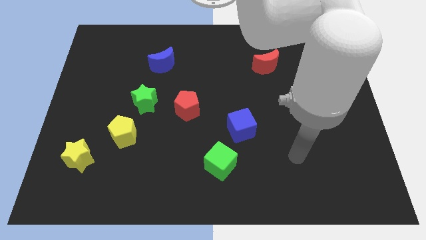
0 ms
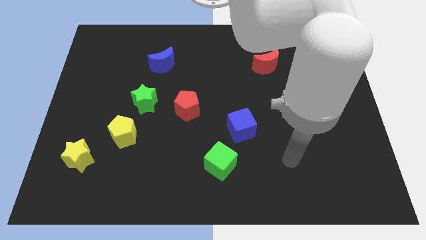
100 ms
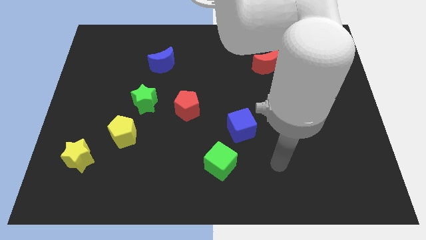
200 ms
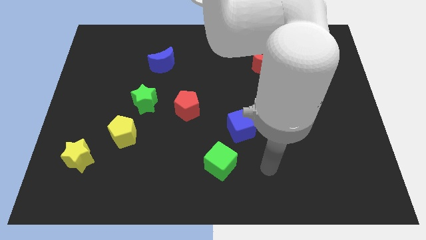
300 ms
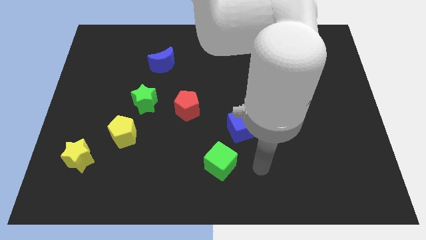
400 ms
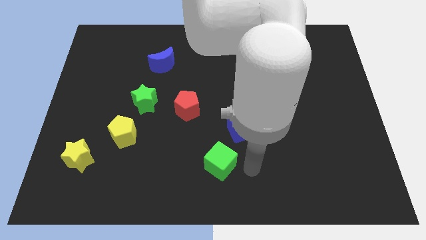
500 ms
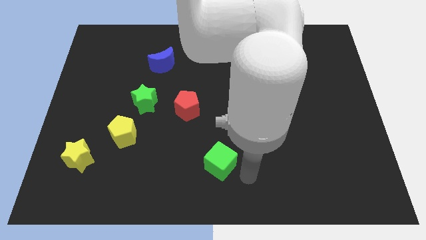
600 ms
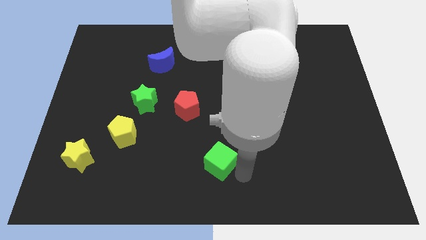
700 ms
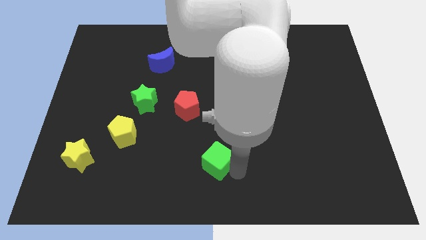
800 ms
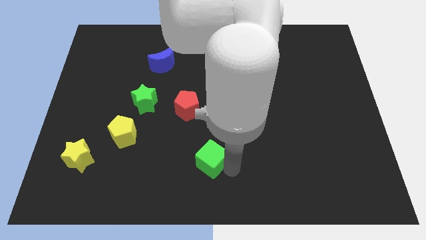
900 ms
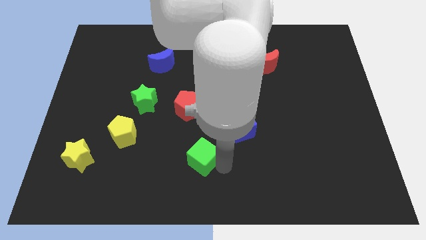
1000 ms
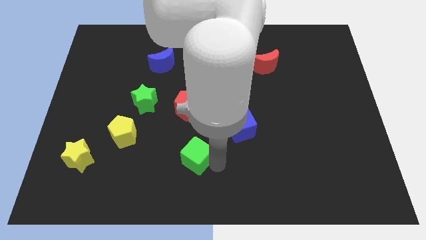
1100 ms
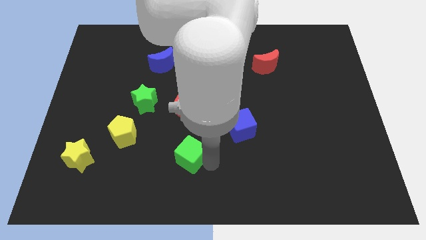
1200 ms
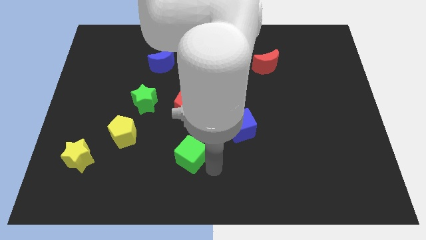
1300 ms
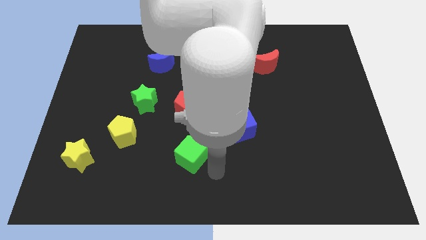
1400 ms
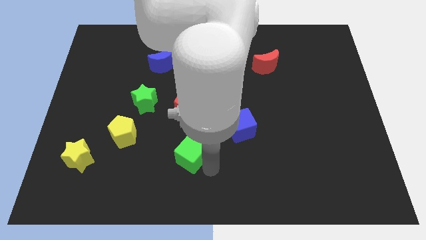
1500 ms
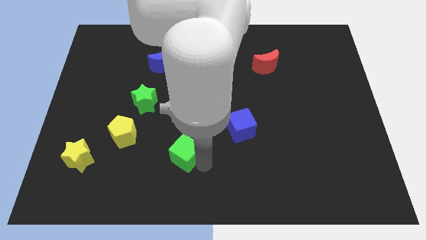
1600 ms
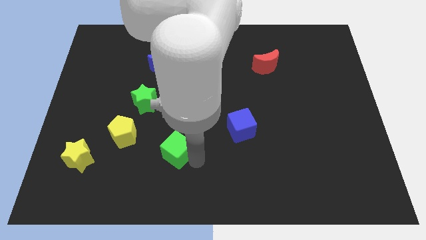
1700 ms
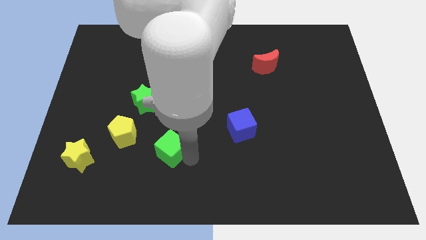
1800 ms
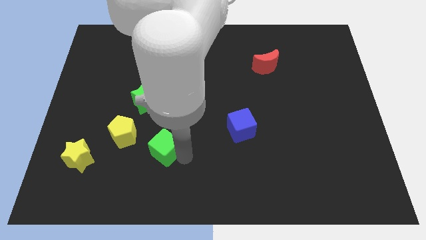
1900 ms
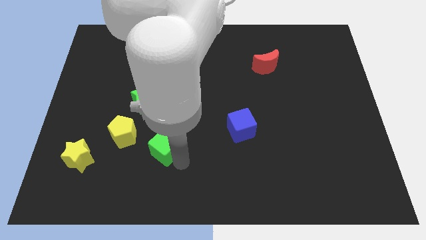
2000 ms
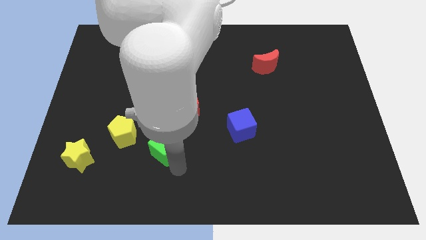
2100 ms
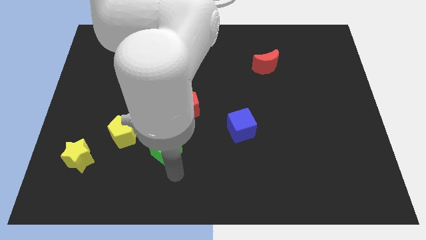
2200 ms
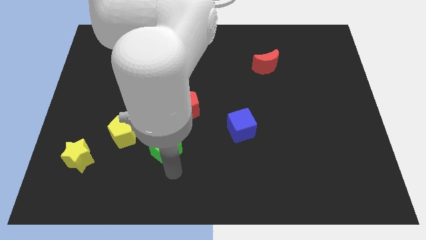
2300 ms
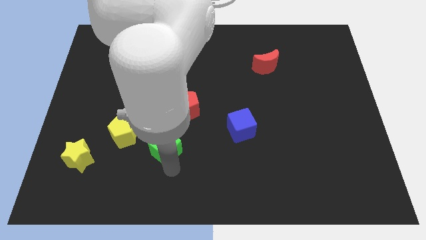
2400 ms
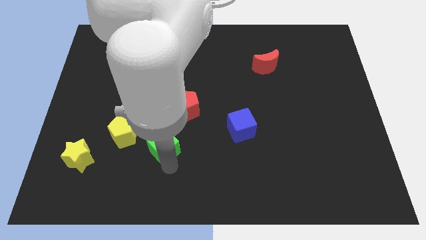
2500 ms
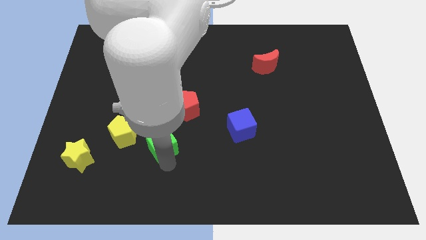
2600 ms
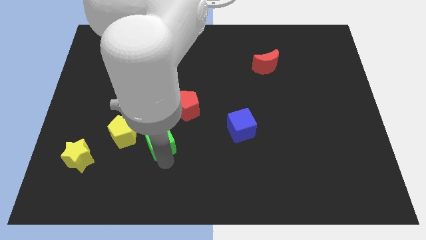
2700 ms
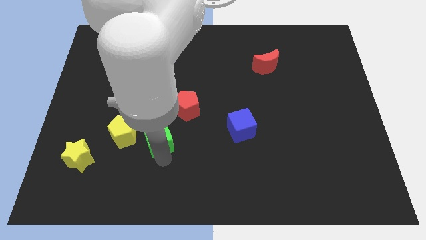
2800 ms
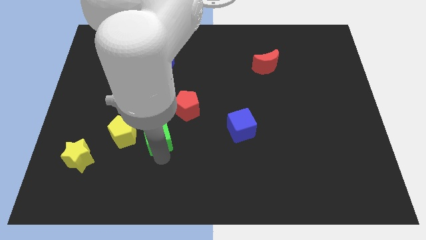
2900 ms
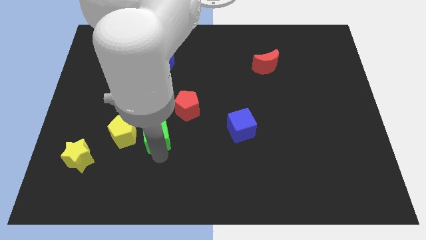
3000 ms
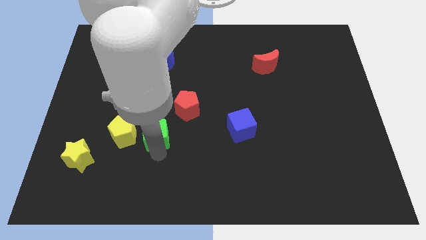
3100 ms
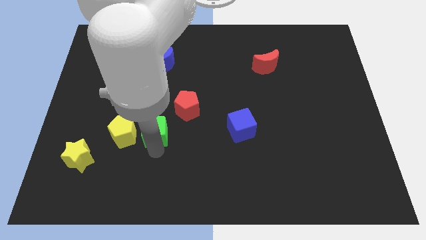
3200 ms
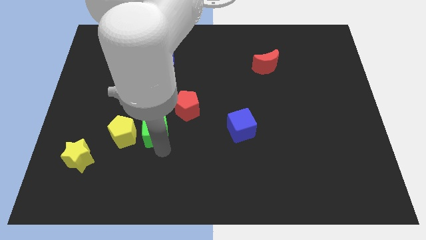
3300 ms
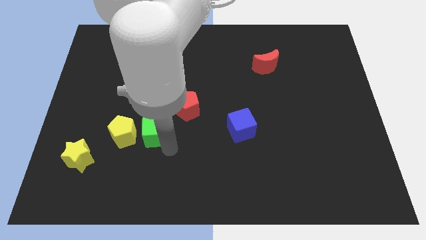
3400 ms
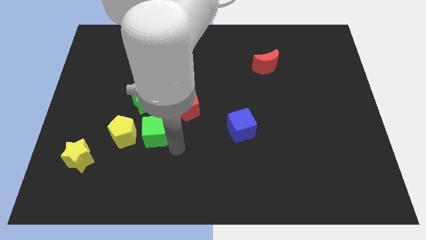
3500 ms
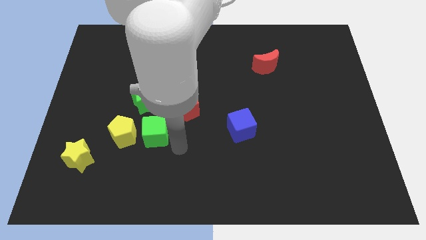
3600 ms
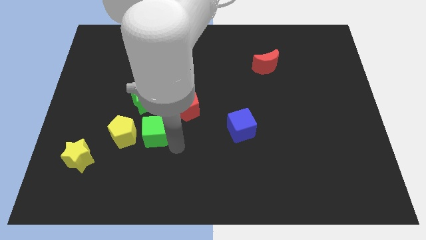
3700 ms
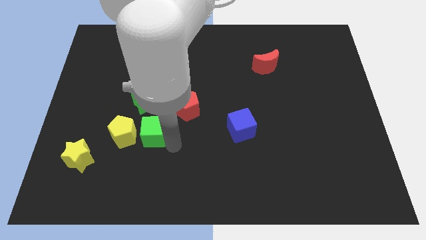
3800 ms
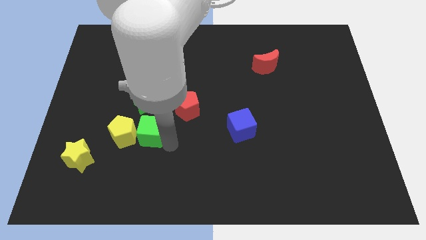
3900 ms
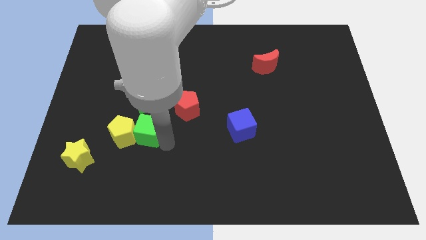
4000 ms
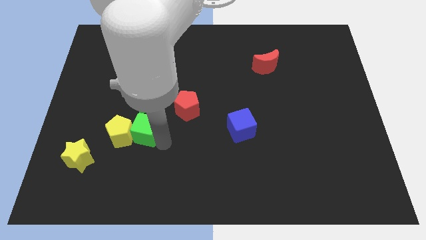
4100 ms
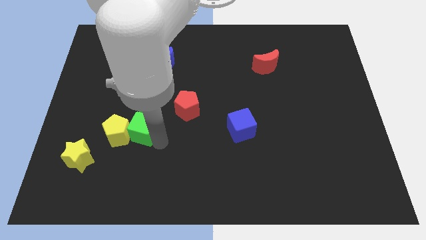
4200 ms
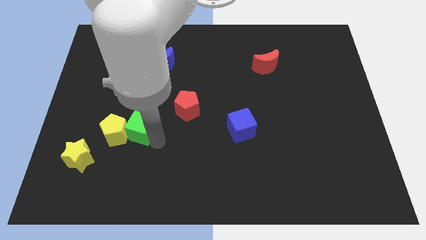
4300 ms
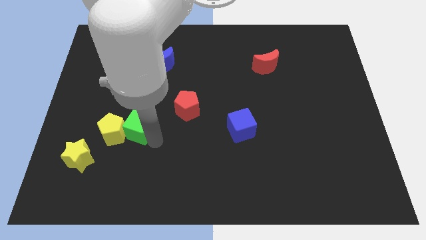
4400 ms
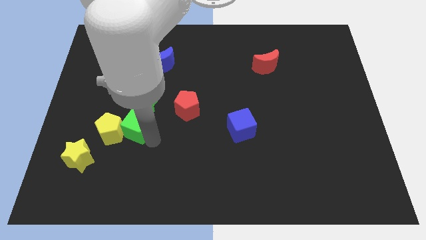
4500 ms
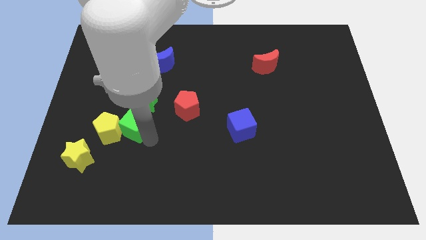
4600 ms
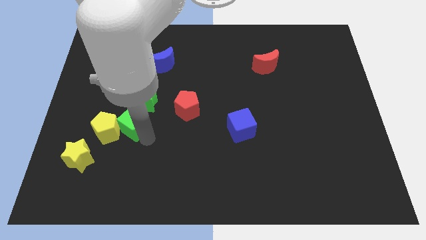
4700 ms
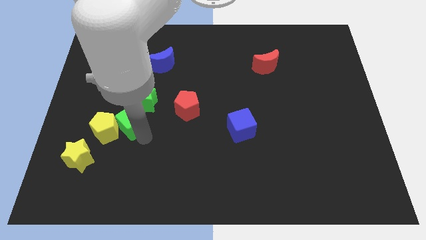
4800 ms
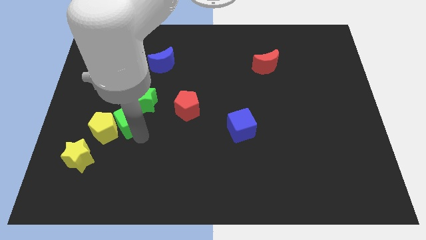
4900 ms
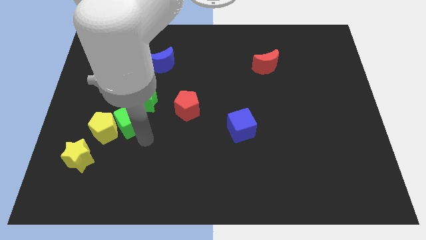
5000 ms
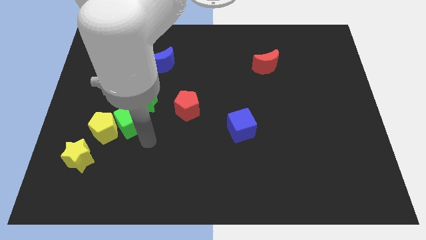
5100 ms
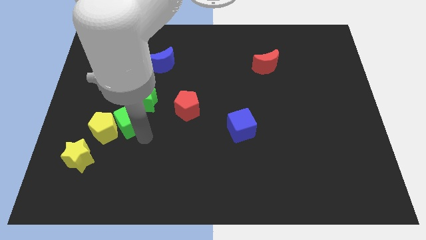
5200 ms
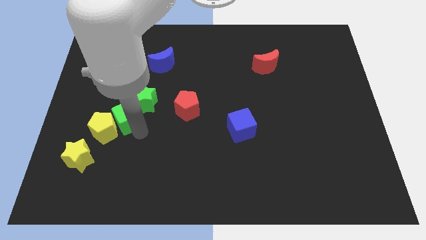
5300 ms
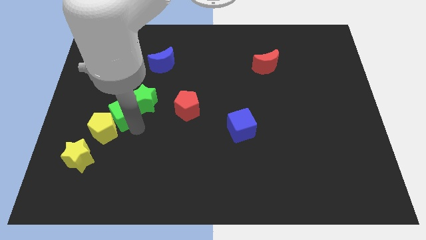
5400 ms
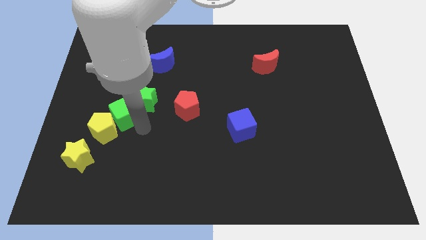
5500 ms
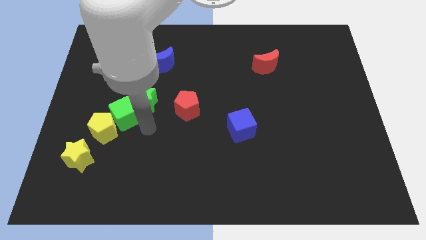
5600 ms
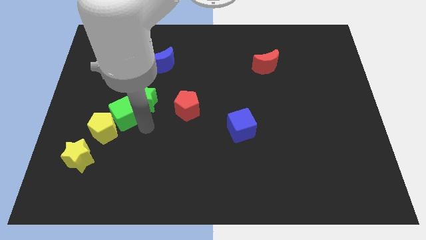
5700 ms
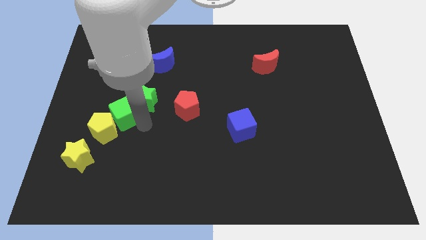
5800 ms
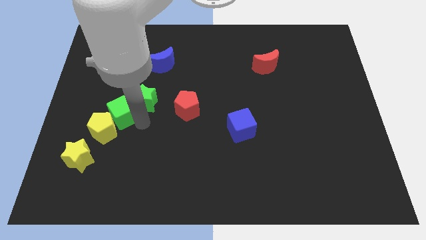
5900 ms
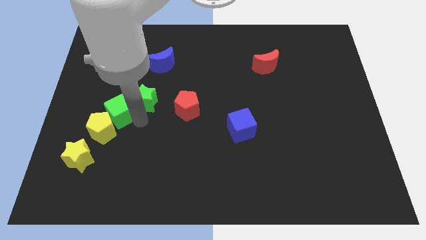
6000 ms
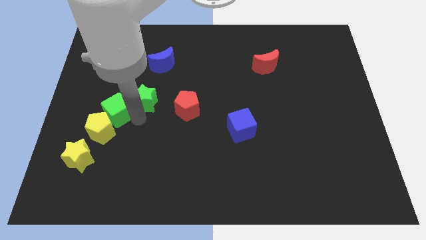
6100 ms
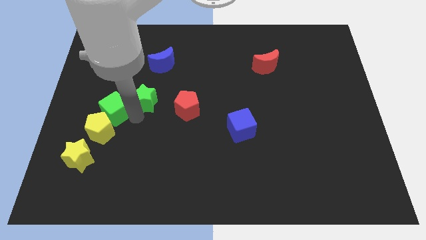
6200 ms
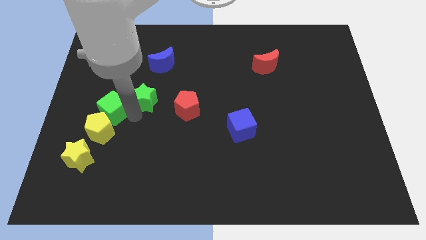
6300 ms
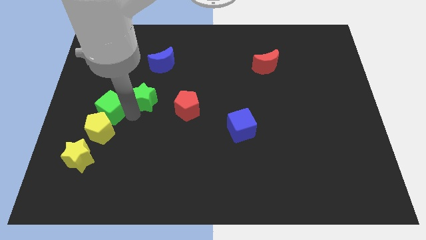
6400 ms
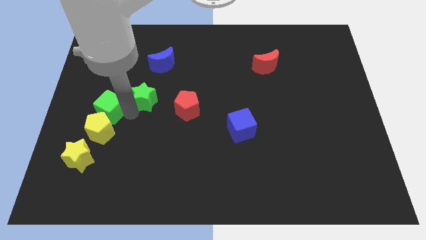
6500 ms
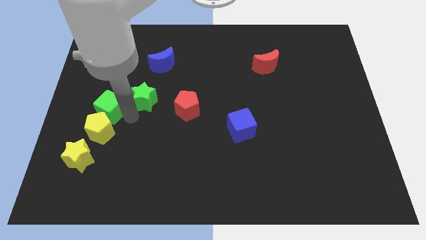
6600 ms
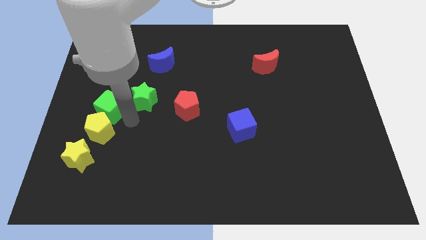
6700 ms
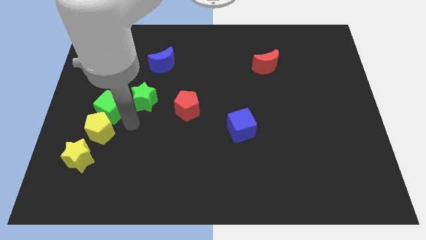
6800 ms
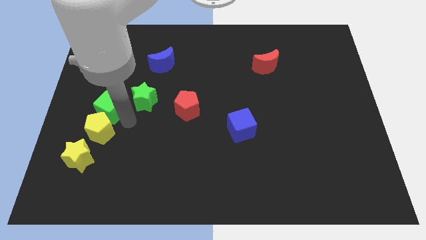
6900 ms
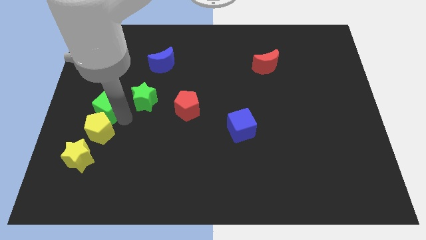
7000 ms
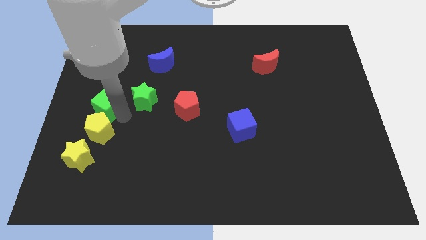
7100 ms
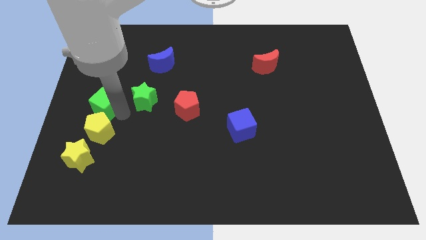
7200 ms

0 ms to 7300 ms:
slide the green cube to the left side of the board

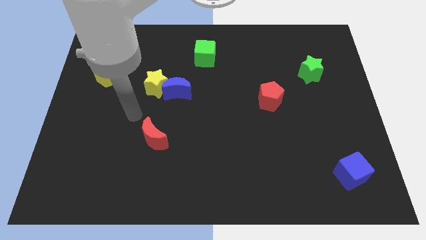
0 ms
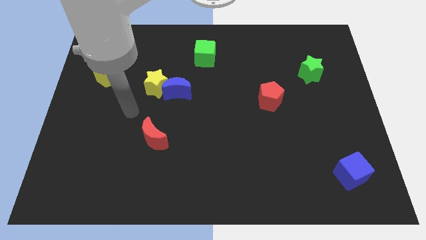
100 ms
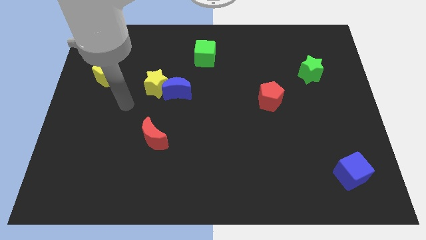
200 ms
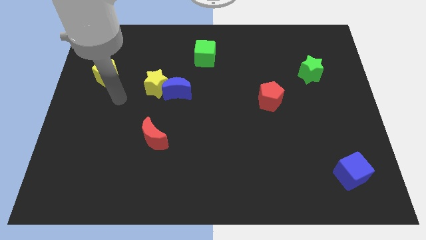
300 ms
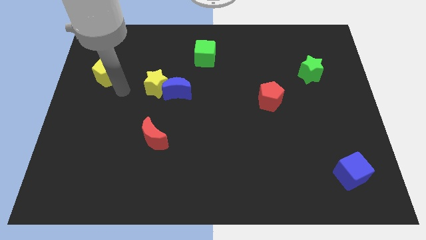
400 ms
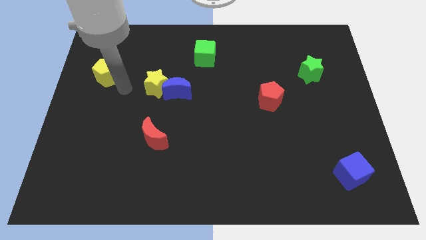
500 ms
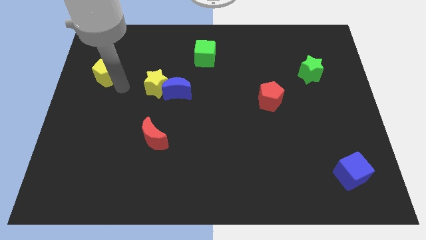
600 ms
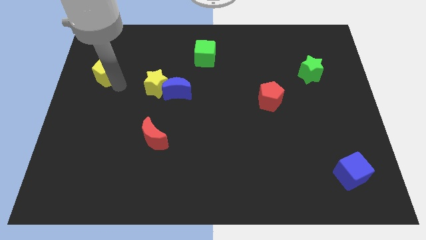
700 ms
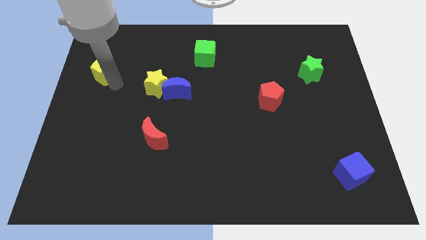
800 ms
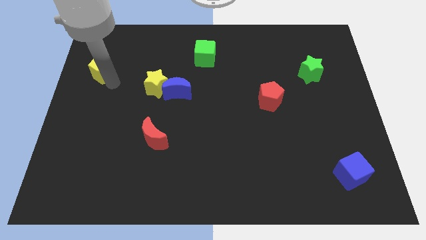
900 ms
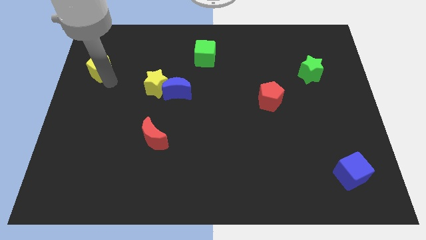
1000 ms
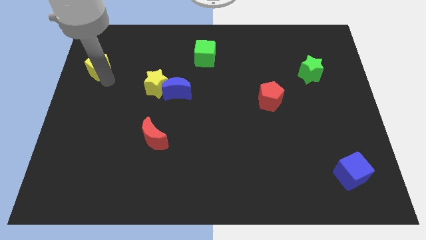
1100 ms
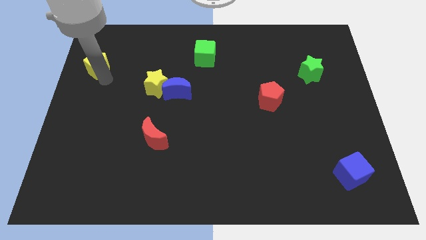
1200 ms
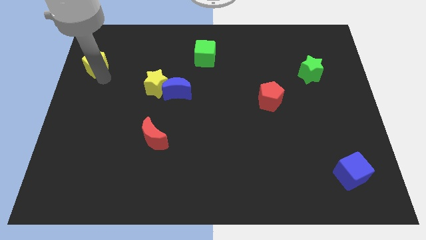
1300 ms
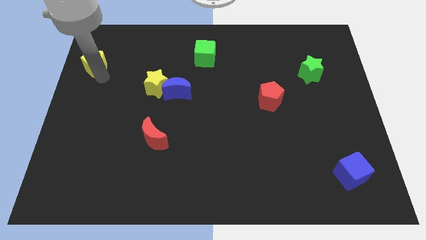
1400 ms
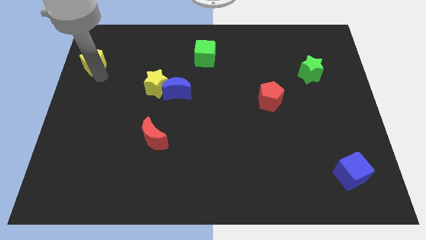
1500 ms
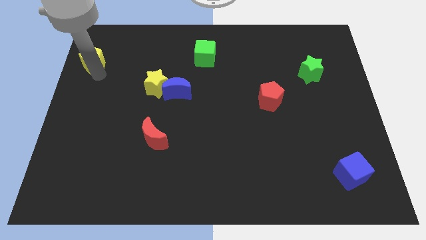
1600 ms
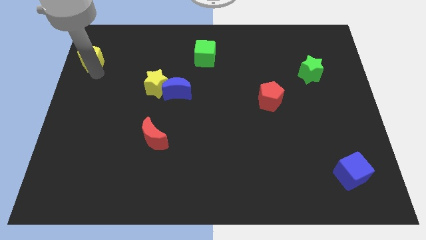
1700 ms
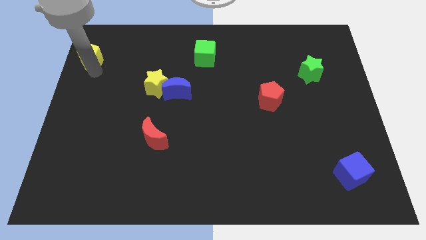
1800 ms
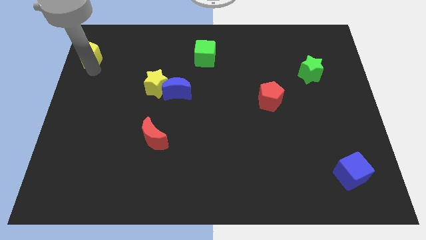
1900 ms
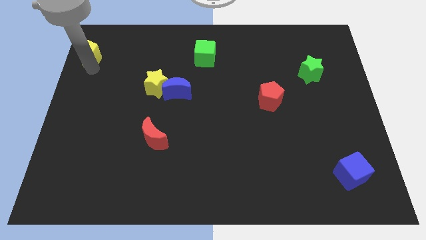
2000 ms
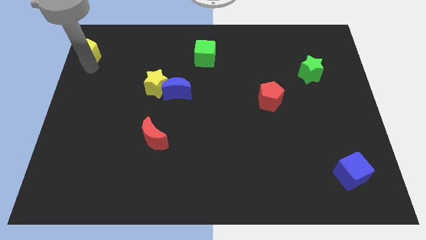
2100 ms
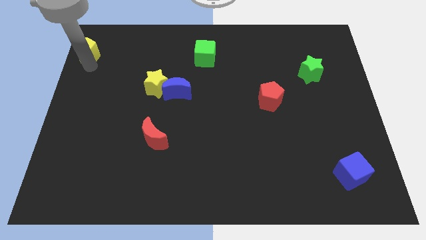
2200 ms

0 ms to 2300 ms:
slide the yellow pentagon to the upper left corner
